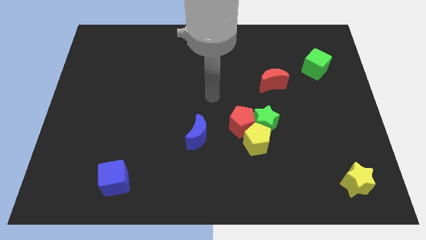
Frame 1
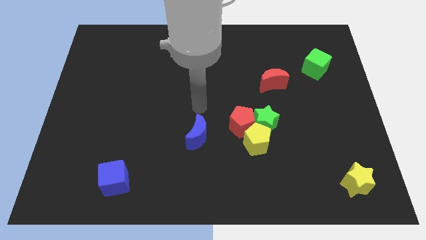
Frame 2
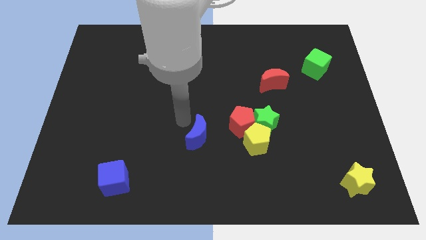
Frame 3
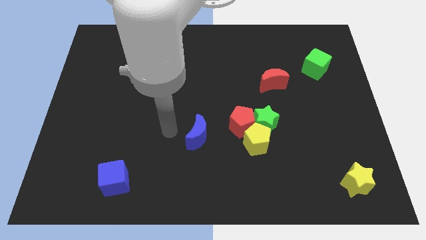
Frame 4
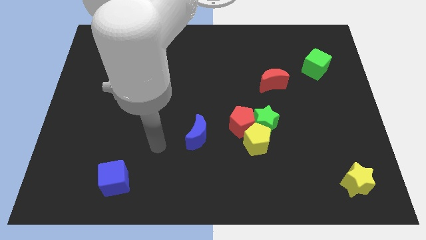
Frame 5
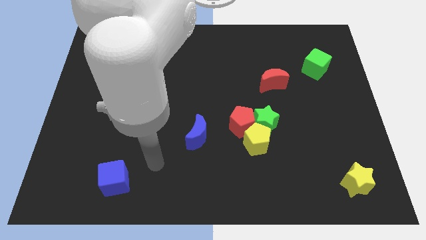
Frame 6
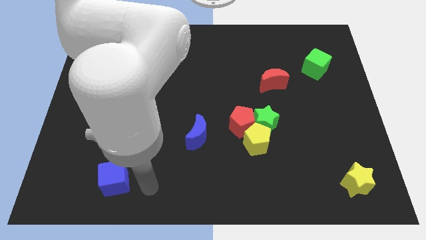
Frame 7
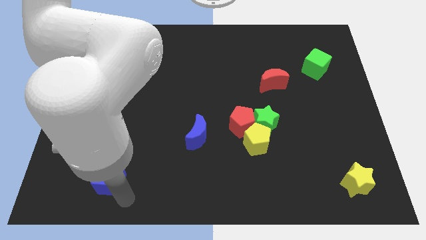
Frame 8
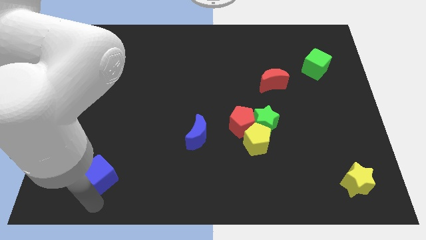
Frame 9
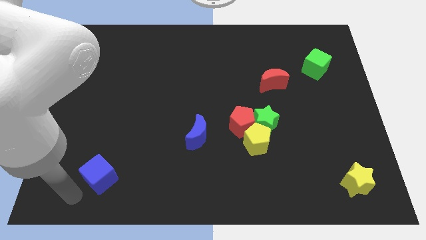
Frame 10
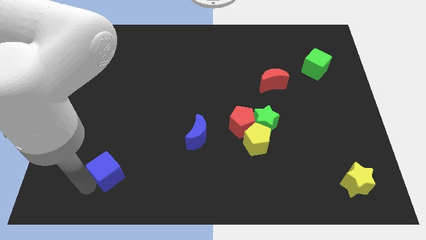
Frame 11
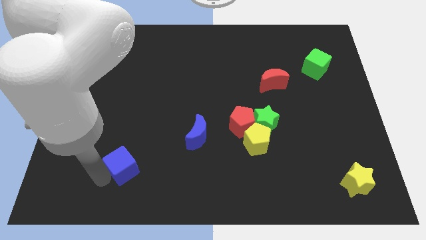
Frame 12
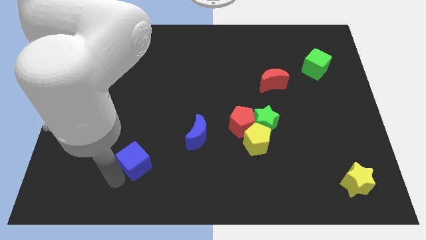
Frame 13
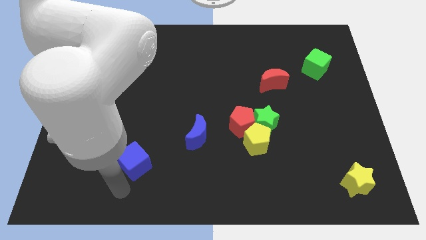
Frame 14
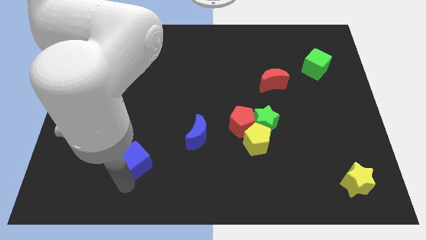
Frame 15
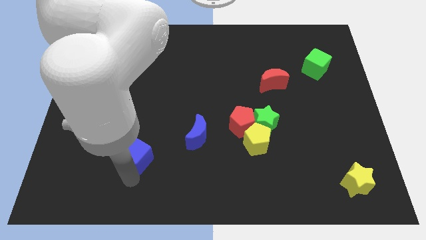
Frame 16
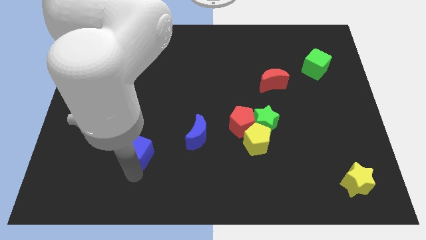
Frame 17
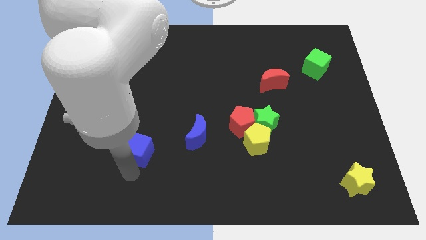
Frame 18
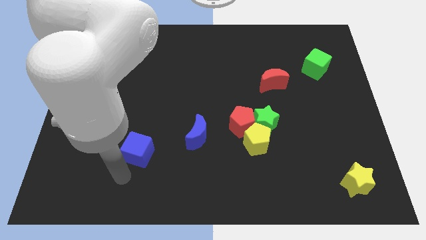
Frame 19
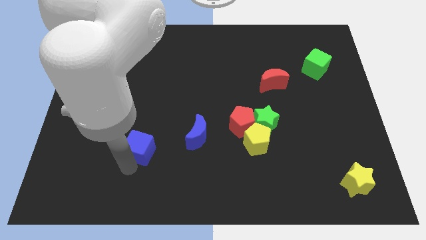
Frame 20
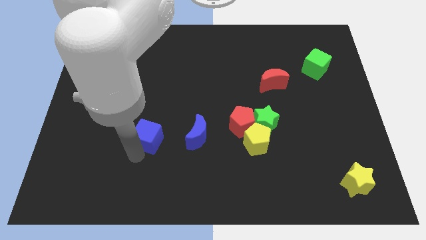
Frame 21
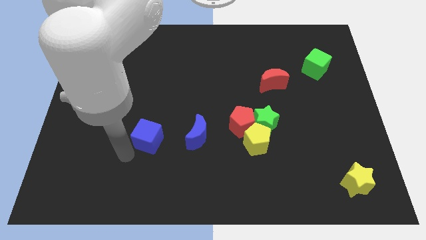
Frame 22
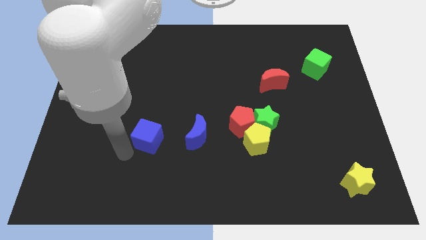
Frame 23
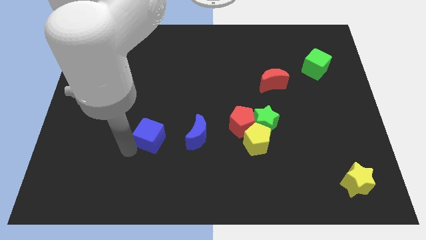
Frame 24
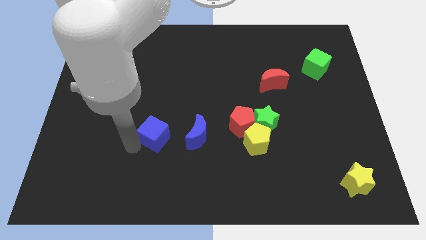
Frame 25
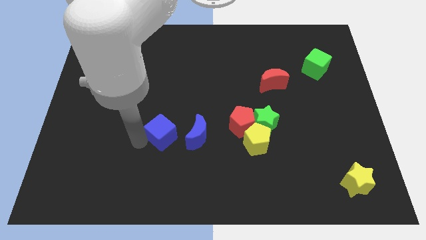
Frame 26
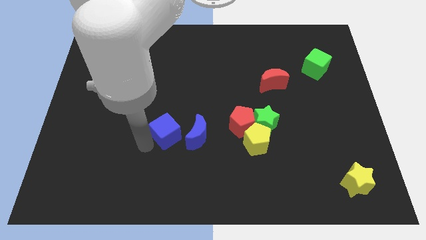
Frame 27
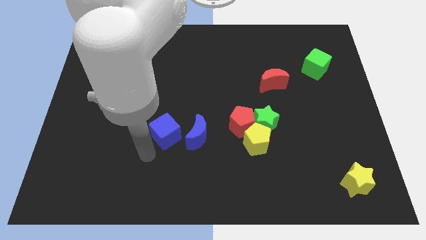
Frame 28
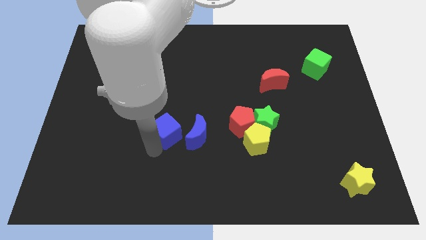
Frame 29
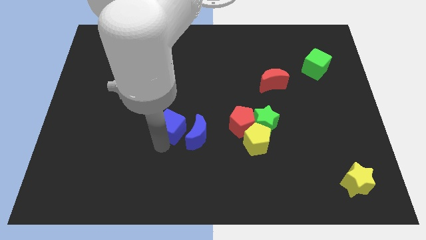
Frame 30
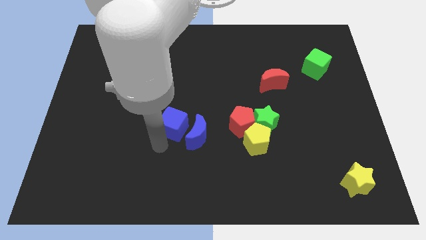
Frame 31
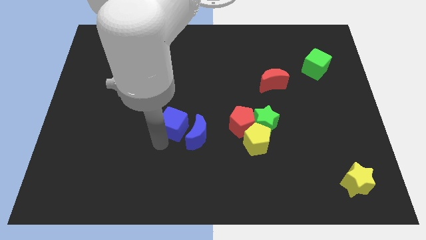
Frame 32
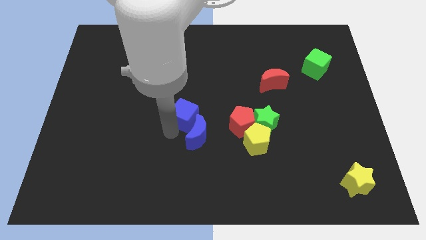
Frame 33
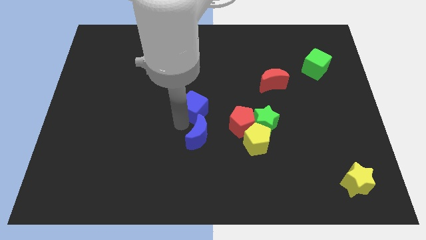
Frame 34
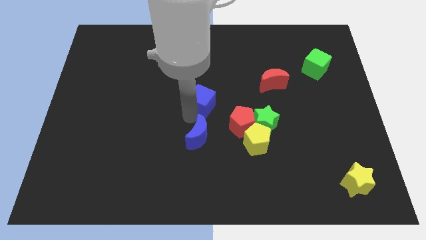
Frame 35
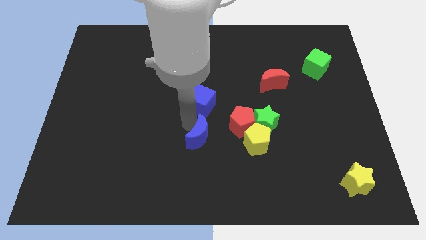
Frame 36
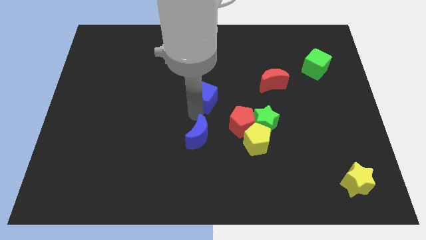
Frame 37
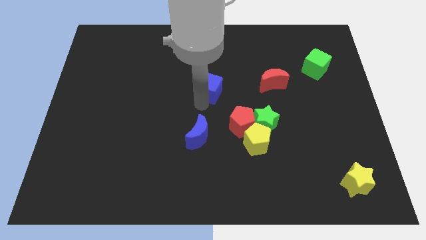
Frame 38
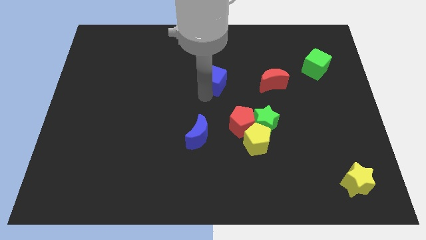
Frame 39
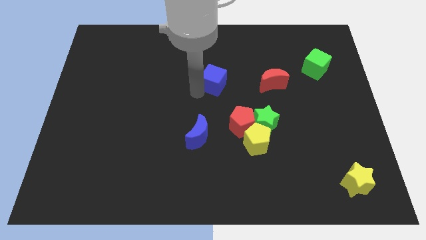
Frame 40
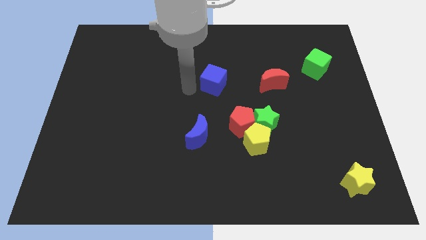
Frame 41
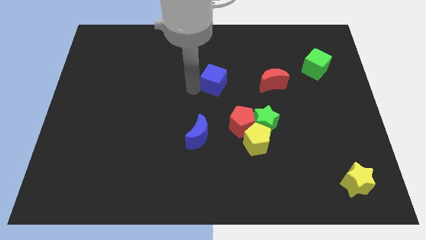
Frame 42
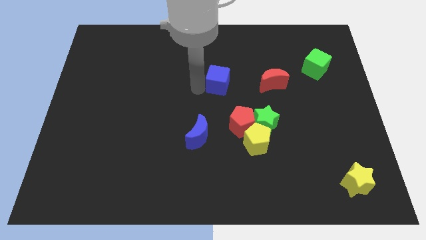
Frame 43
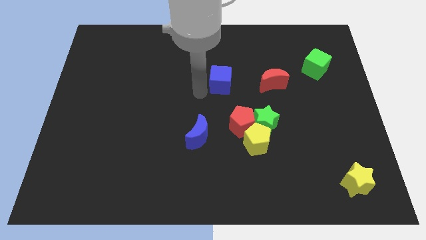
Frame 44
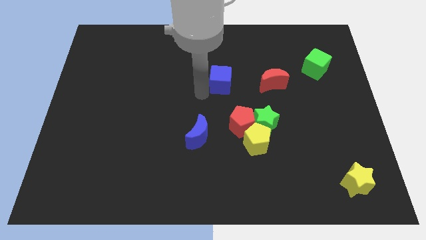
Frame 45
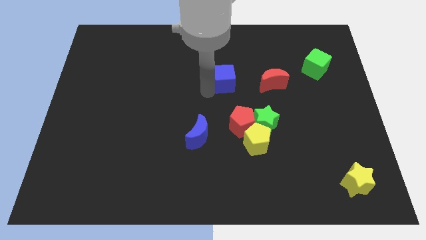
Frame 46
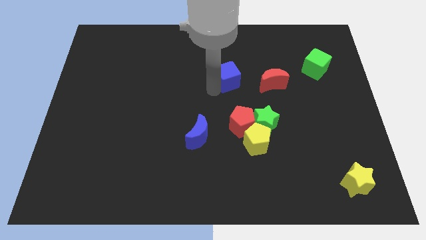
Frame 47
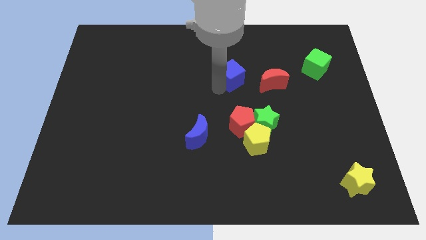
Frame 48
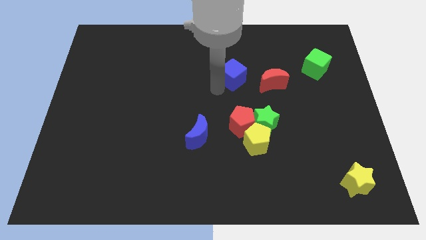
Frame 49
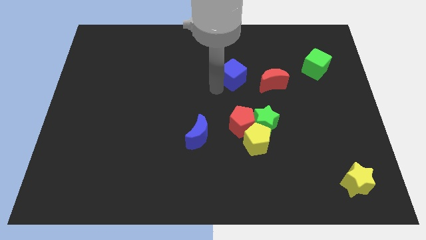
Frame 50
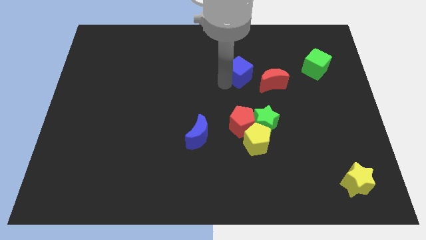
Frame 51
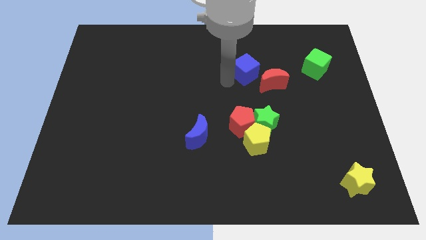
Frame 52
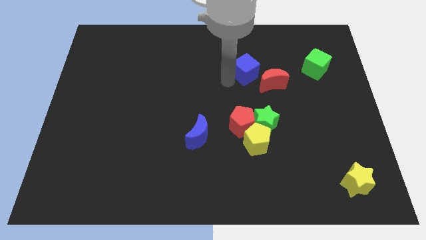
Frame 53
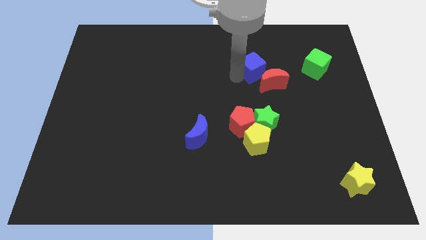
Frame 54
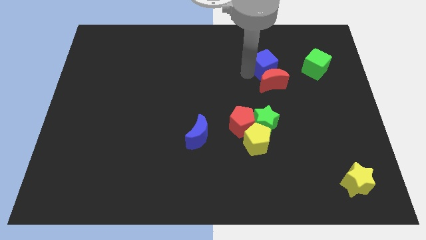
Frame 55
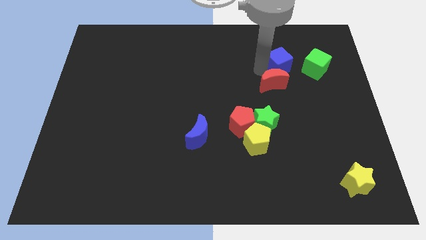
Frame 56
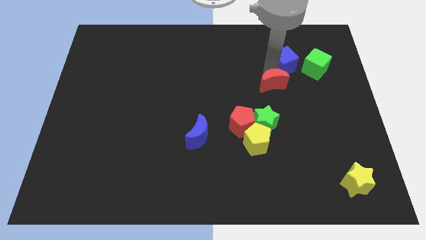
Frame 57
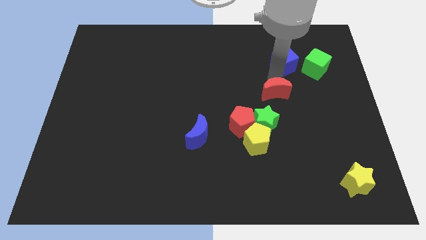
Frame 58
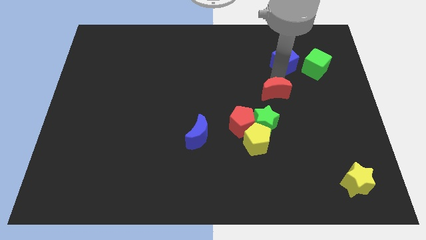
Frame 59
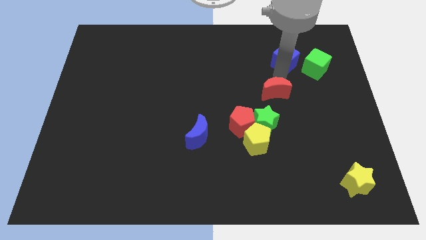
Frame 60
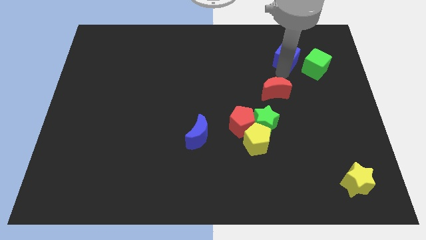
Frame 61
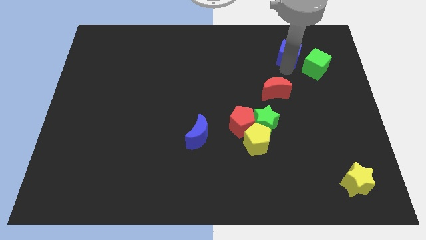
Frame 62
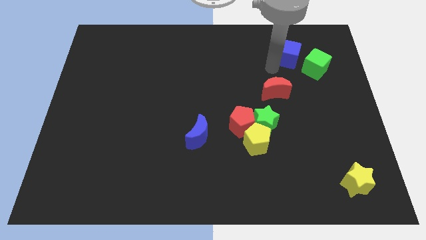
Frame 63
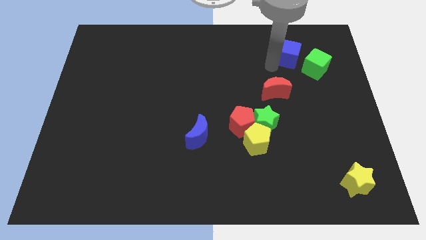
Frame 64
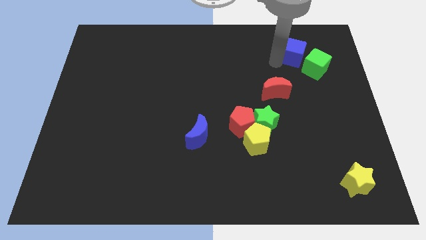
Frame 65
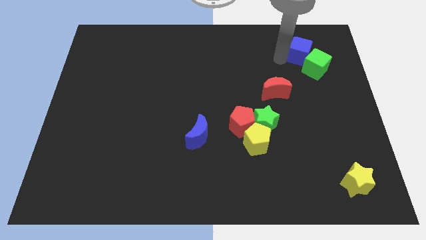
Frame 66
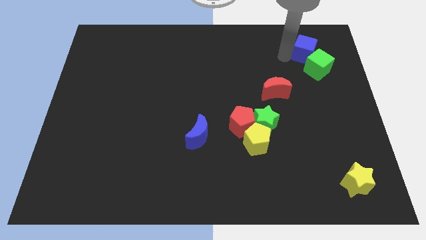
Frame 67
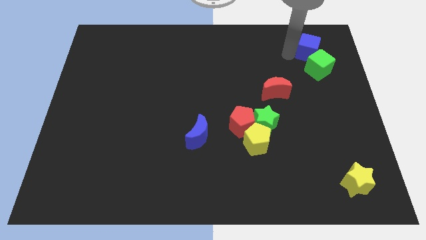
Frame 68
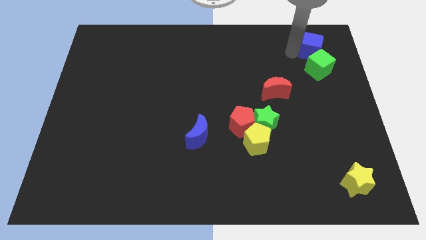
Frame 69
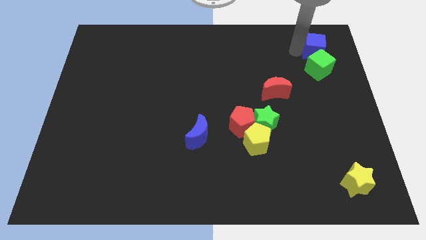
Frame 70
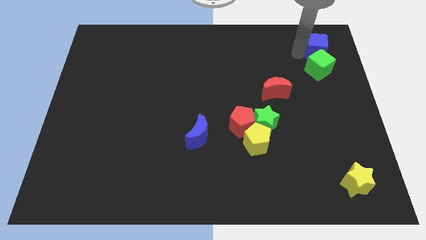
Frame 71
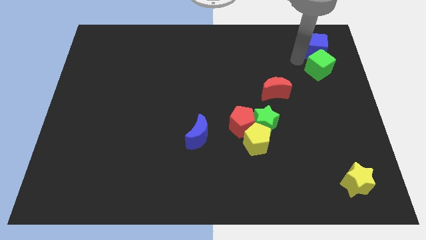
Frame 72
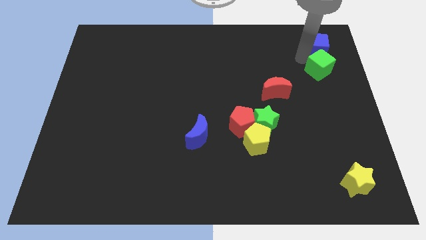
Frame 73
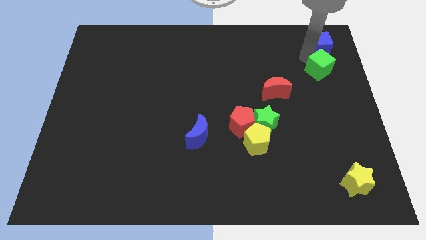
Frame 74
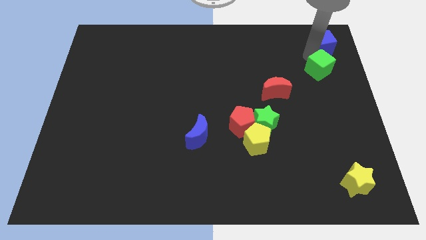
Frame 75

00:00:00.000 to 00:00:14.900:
move the blue cube to the upper right corner
